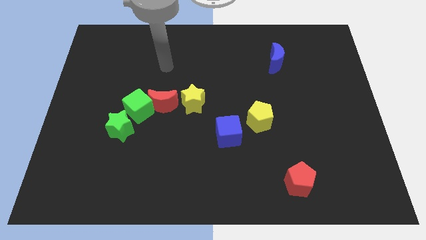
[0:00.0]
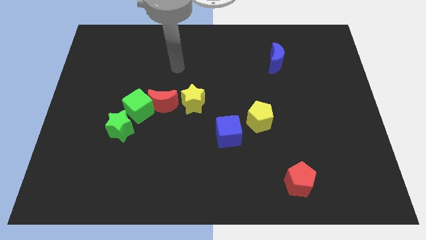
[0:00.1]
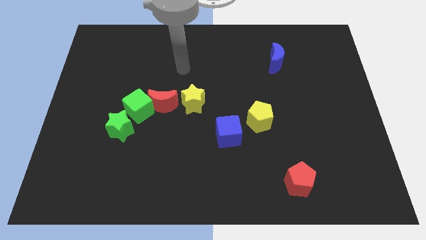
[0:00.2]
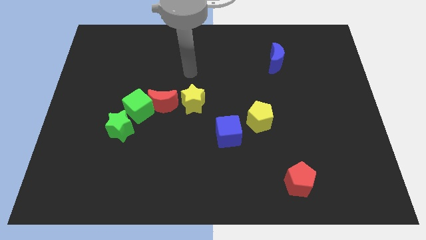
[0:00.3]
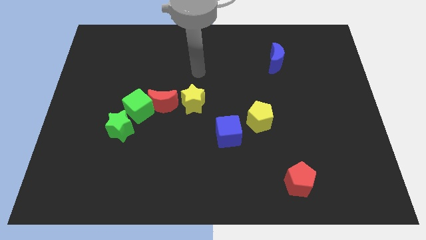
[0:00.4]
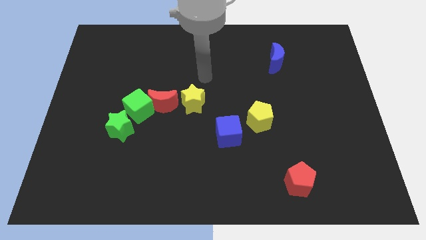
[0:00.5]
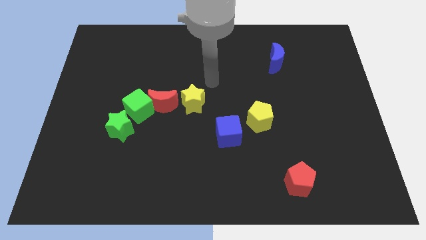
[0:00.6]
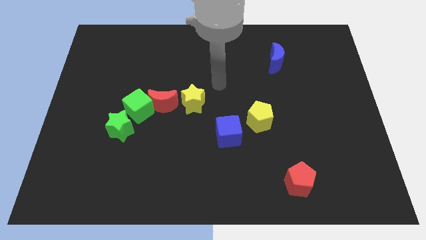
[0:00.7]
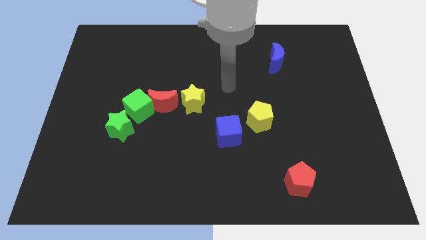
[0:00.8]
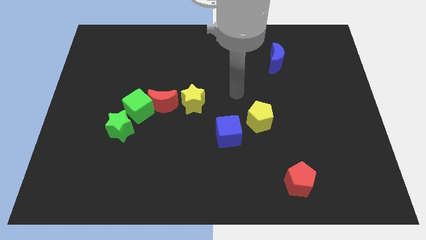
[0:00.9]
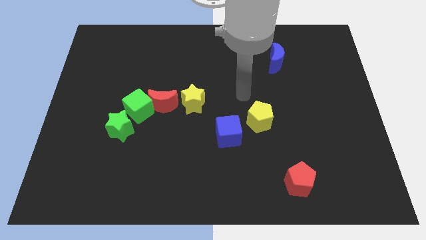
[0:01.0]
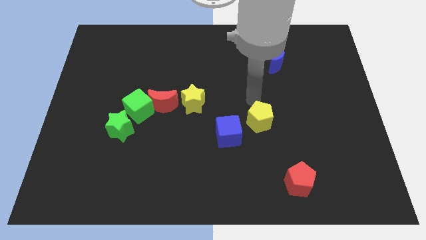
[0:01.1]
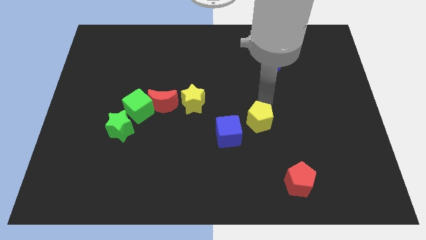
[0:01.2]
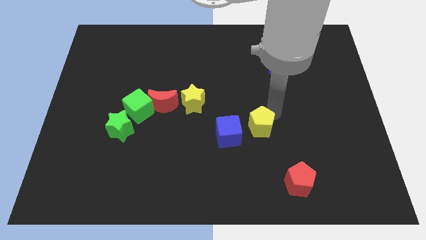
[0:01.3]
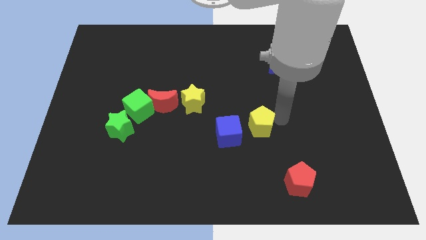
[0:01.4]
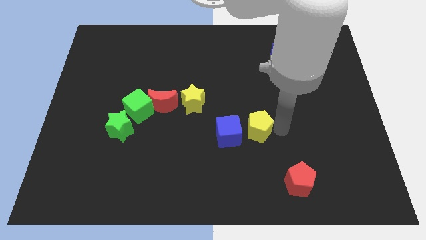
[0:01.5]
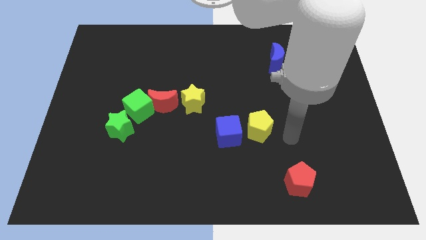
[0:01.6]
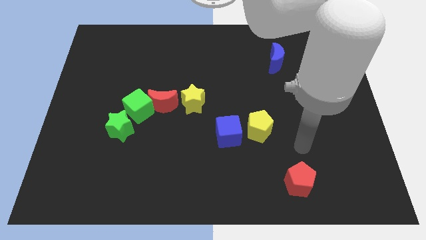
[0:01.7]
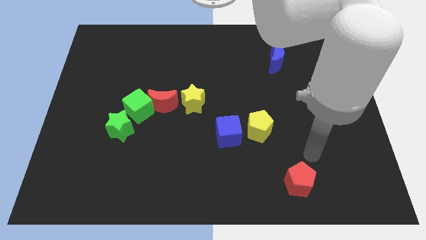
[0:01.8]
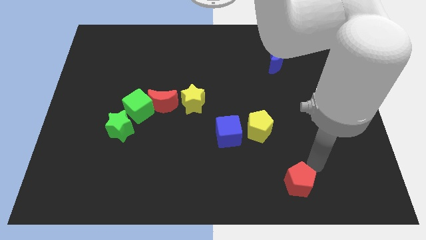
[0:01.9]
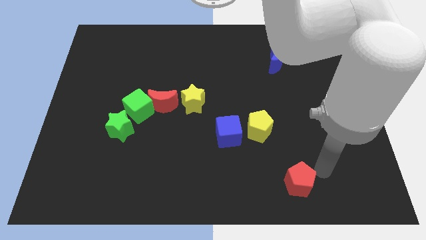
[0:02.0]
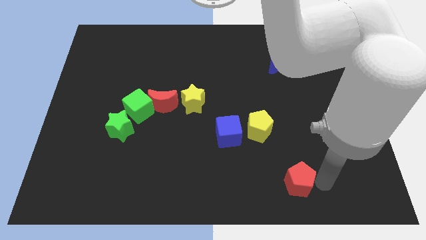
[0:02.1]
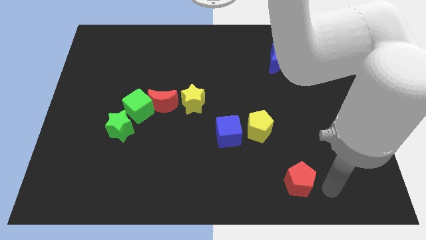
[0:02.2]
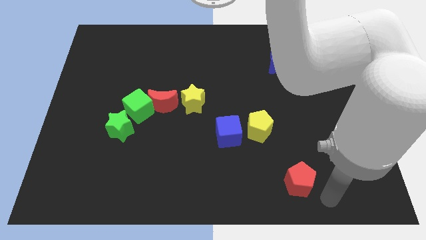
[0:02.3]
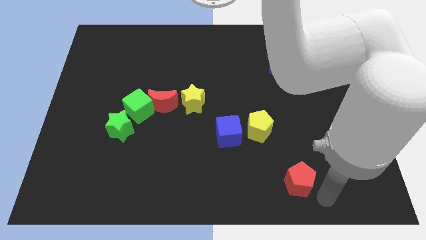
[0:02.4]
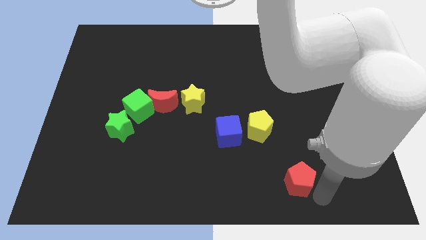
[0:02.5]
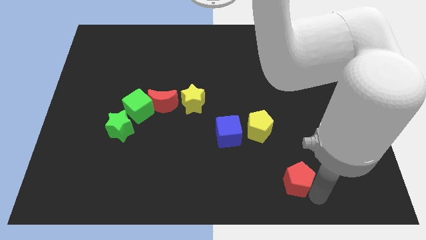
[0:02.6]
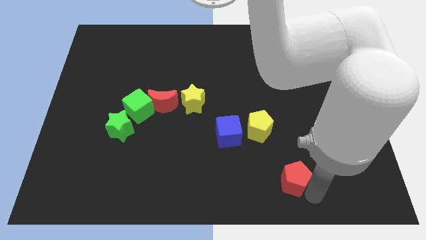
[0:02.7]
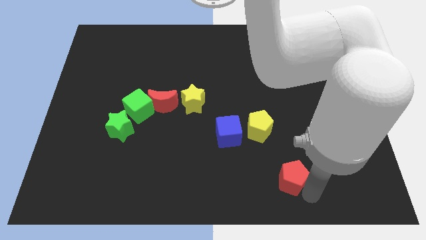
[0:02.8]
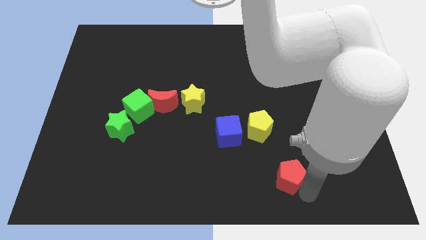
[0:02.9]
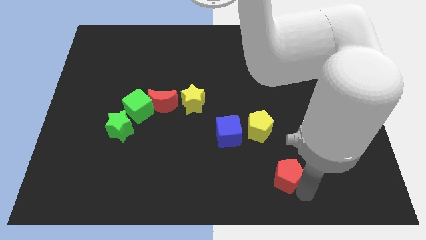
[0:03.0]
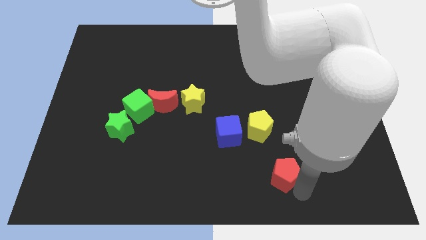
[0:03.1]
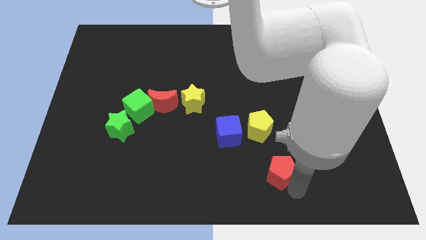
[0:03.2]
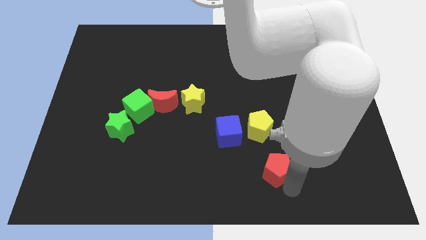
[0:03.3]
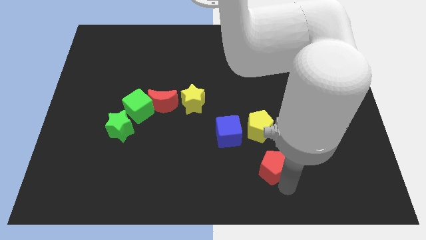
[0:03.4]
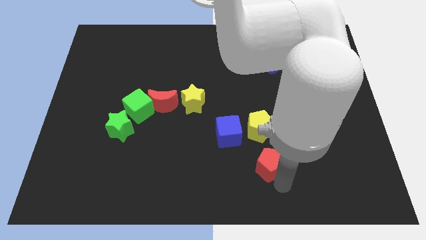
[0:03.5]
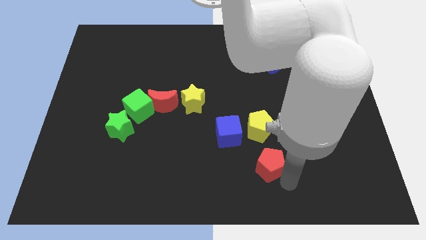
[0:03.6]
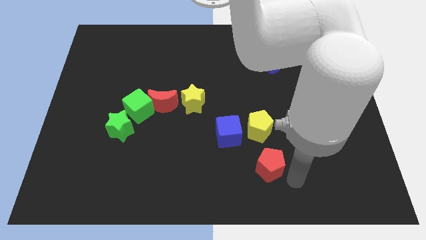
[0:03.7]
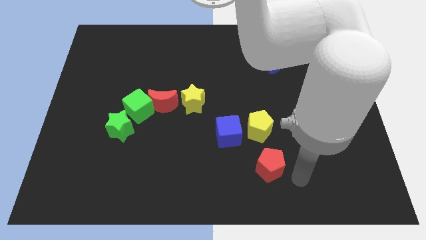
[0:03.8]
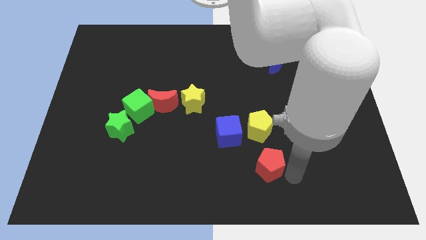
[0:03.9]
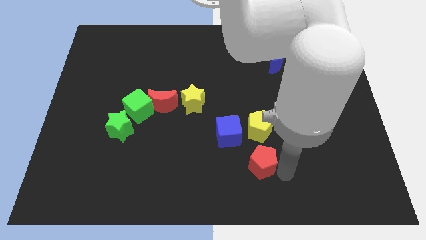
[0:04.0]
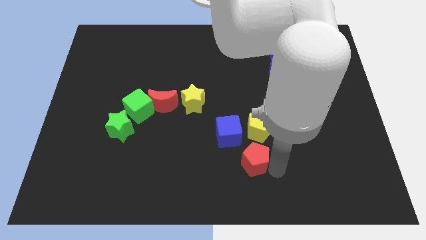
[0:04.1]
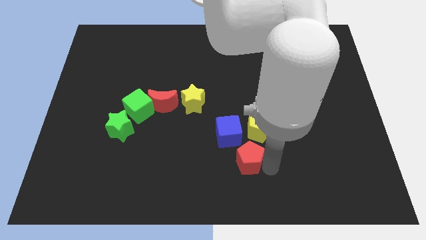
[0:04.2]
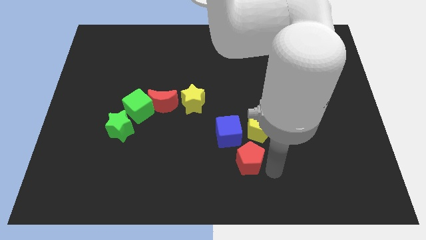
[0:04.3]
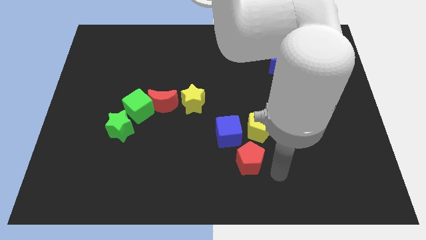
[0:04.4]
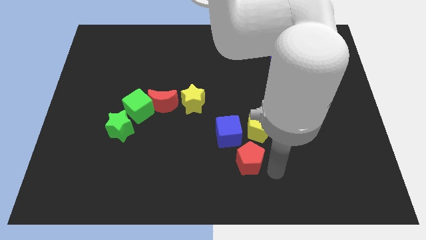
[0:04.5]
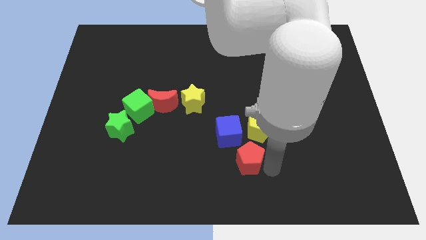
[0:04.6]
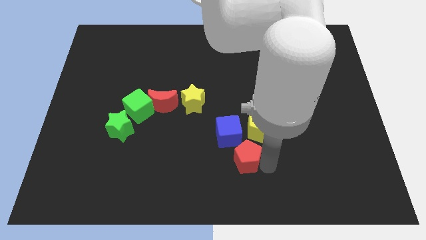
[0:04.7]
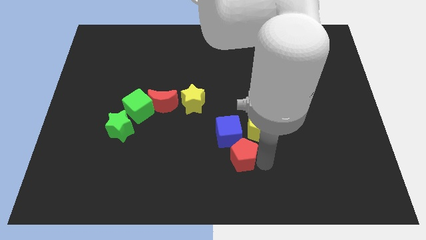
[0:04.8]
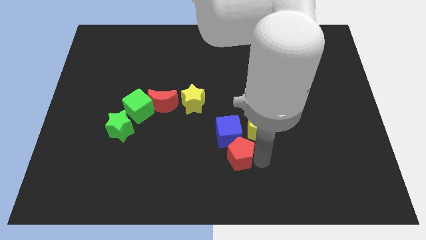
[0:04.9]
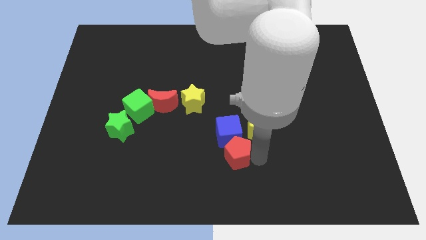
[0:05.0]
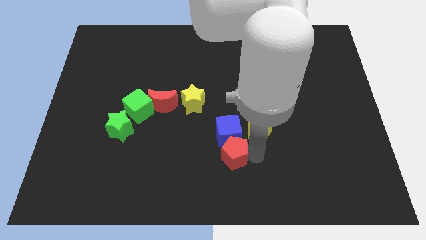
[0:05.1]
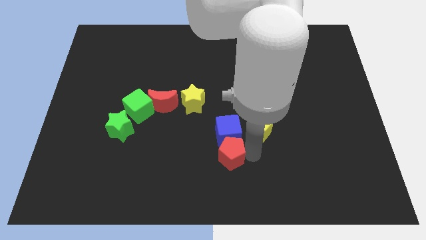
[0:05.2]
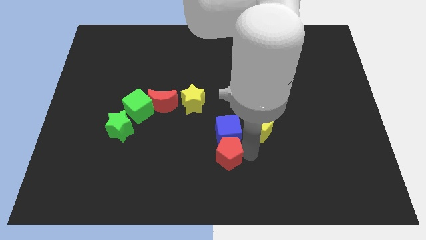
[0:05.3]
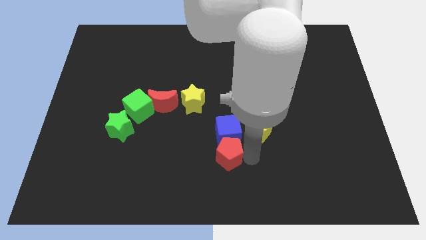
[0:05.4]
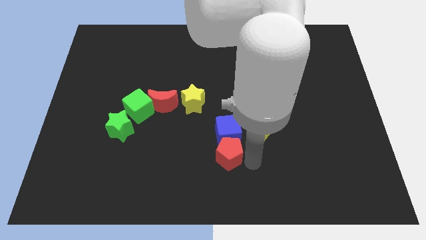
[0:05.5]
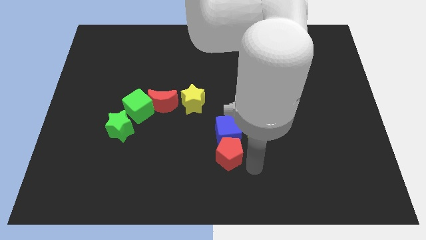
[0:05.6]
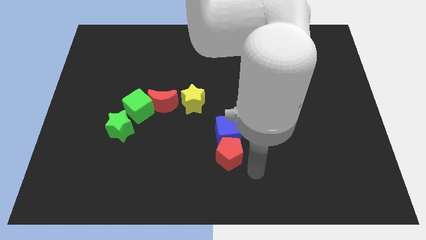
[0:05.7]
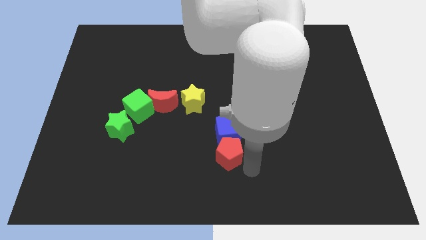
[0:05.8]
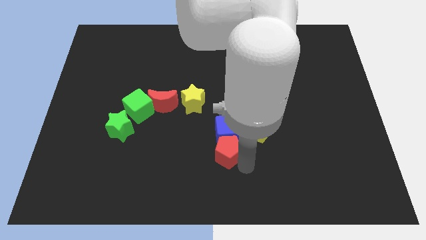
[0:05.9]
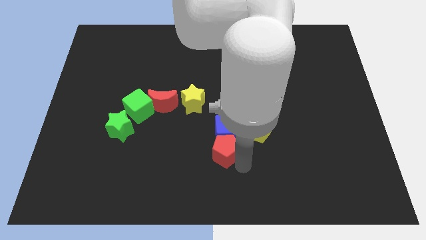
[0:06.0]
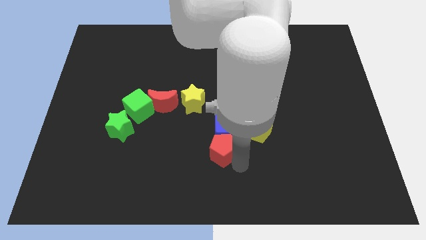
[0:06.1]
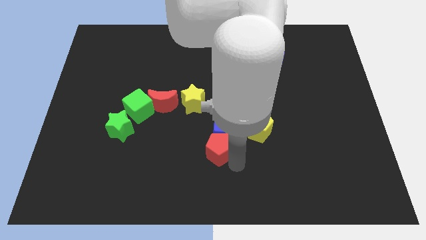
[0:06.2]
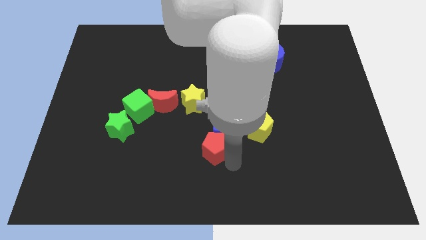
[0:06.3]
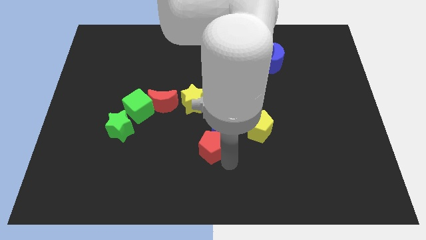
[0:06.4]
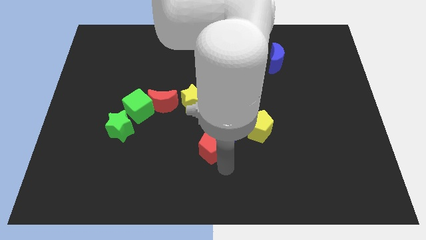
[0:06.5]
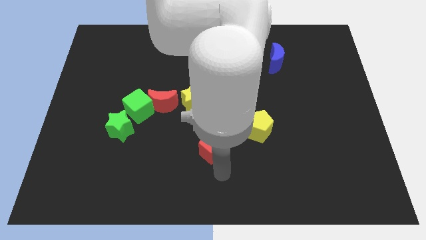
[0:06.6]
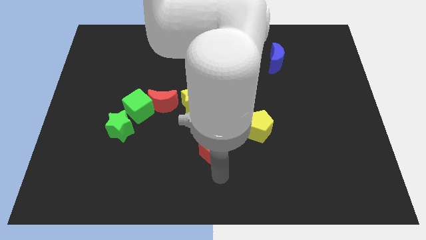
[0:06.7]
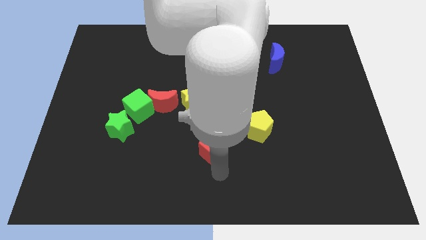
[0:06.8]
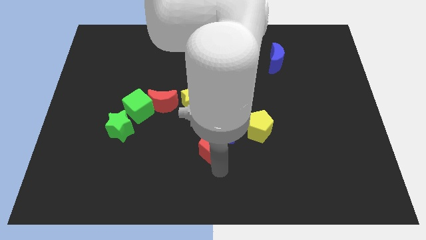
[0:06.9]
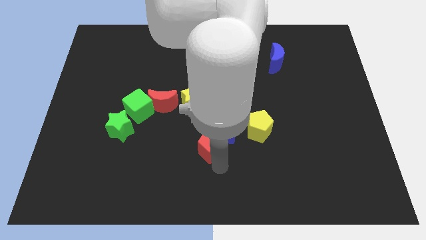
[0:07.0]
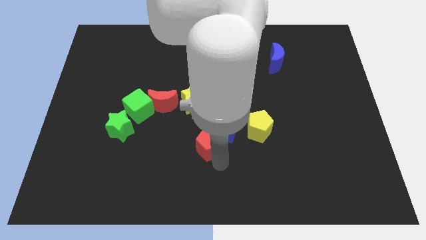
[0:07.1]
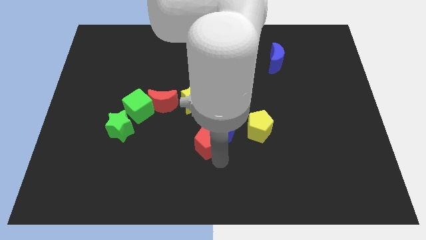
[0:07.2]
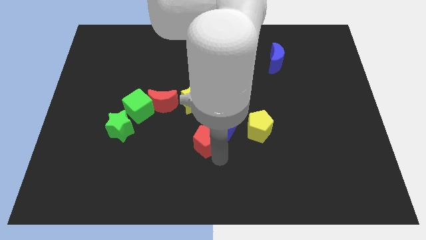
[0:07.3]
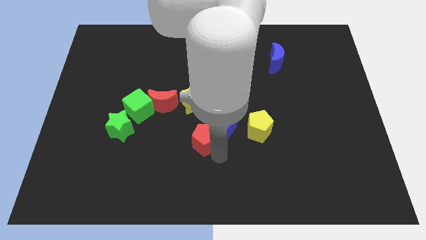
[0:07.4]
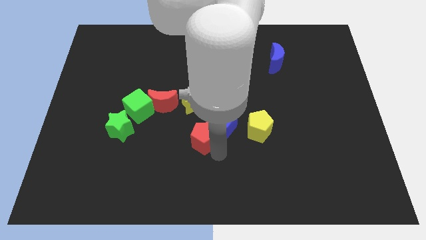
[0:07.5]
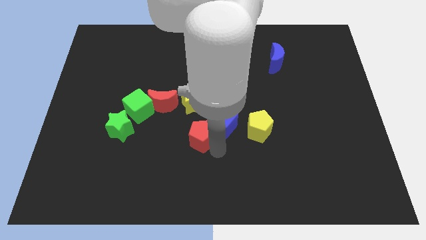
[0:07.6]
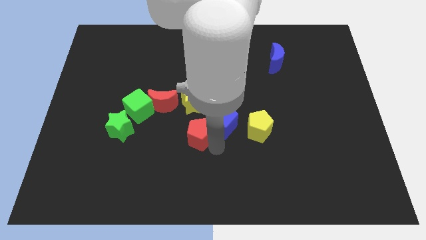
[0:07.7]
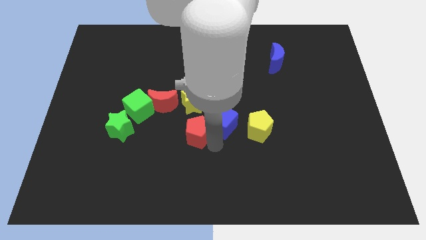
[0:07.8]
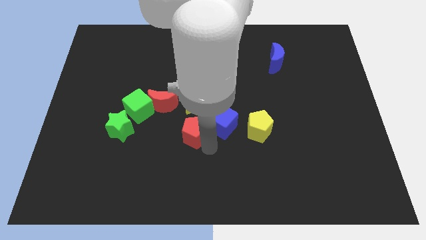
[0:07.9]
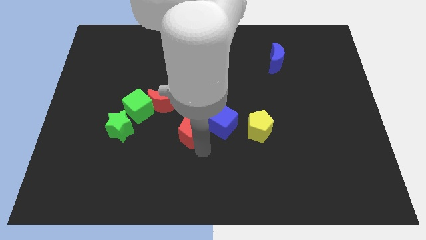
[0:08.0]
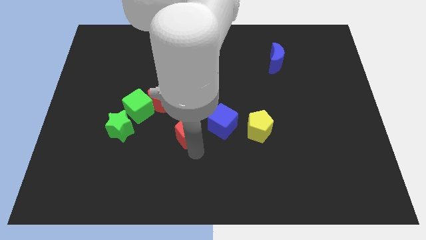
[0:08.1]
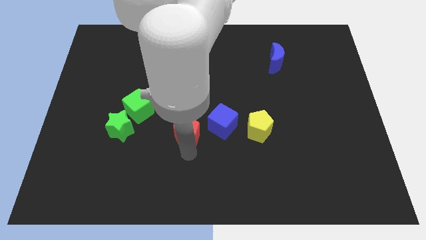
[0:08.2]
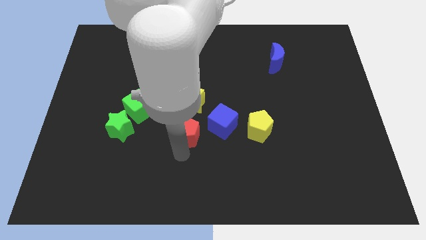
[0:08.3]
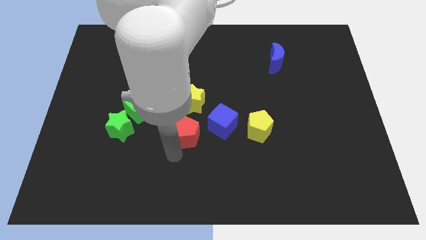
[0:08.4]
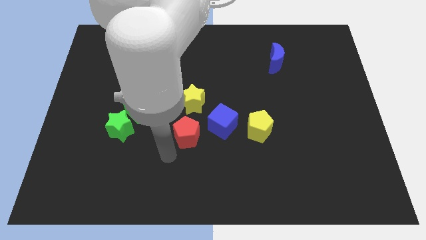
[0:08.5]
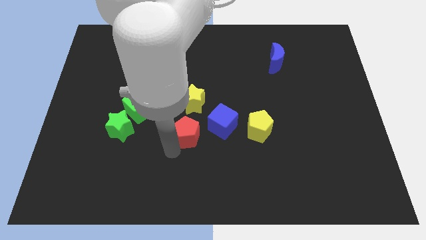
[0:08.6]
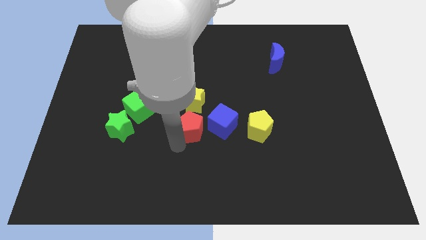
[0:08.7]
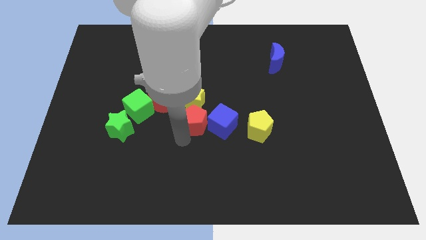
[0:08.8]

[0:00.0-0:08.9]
move the red pentagon towards the yellow star
